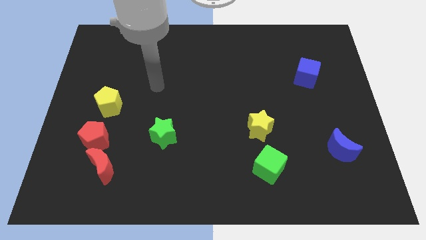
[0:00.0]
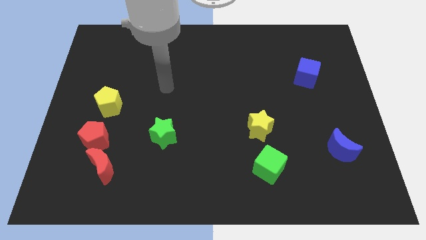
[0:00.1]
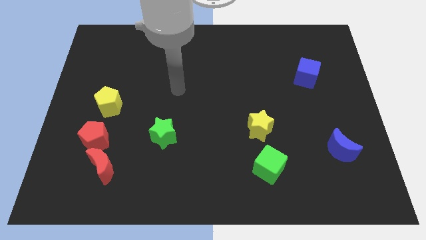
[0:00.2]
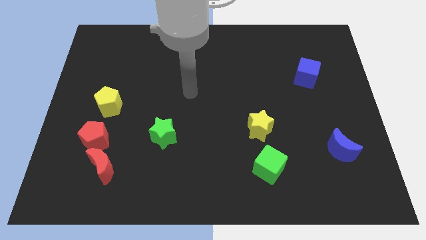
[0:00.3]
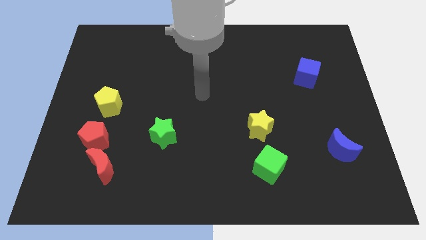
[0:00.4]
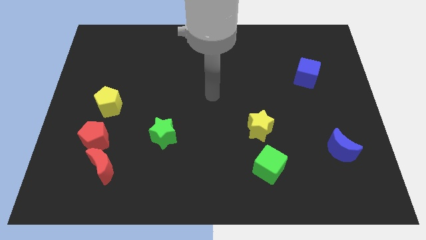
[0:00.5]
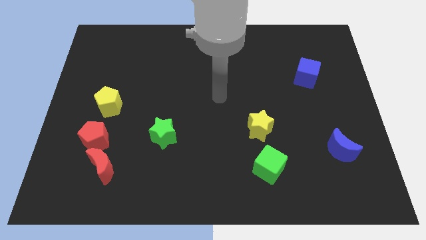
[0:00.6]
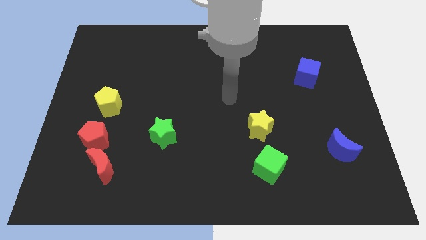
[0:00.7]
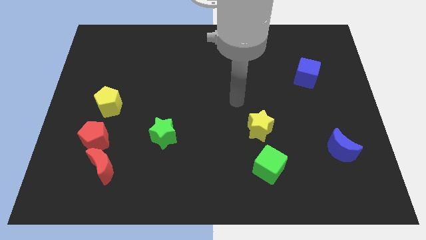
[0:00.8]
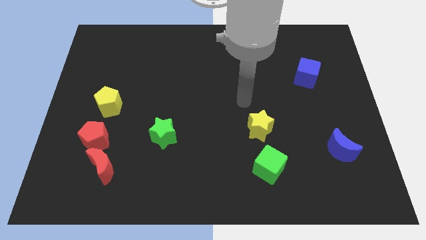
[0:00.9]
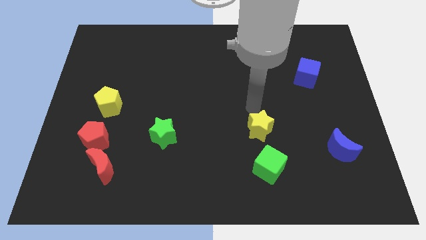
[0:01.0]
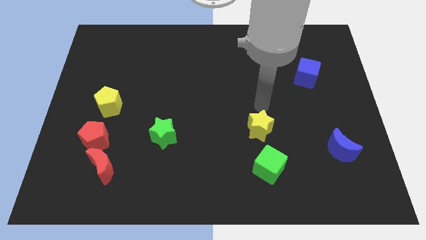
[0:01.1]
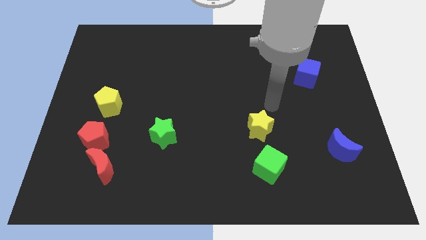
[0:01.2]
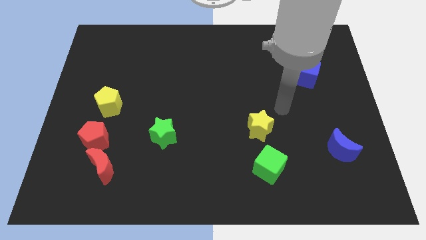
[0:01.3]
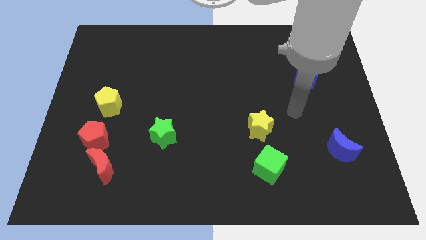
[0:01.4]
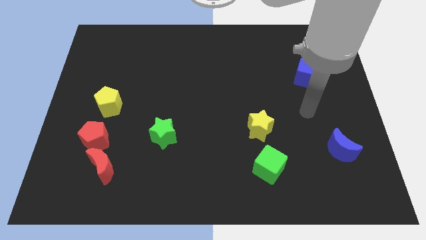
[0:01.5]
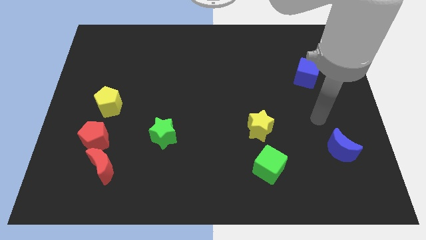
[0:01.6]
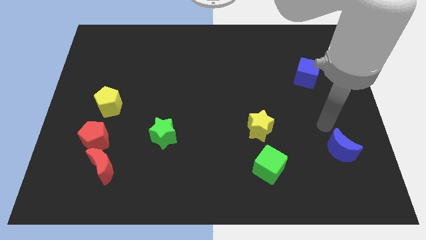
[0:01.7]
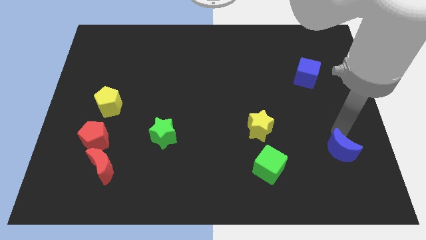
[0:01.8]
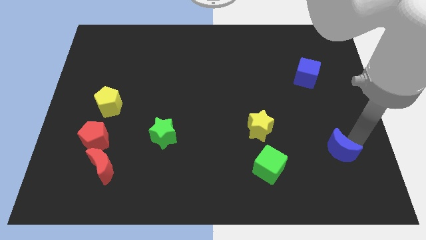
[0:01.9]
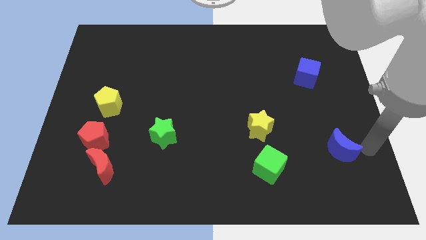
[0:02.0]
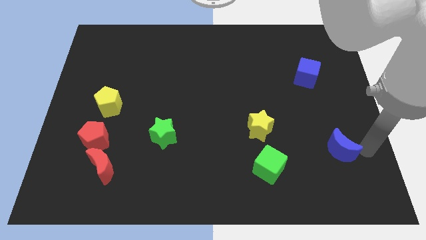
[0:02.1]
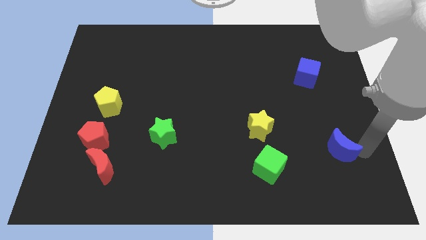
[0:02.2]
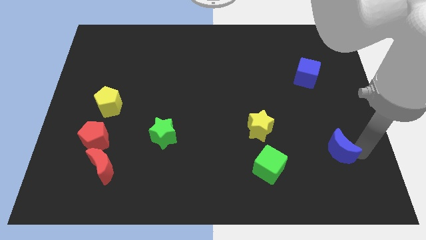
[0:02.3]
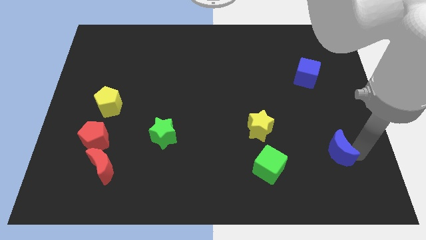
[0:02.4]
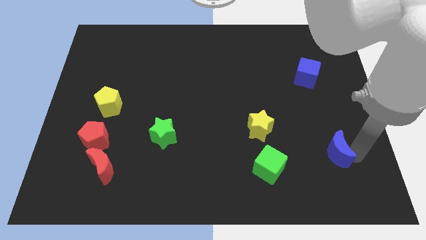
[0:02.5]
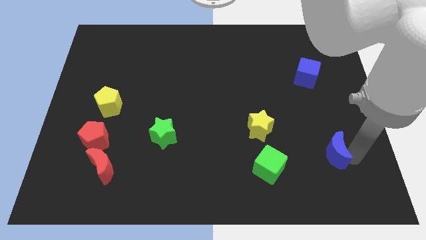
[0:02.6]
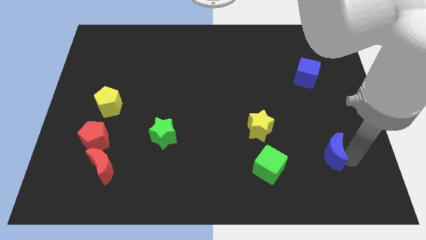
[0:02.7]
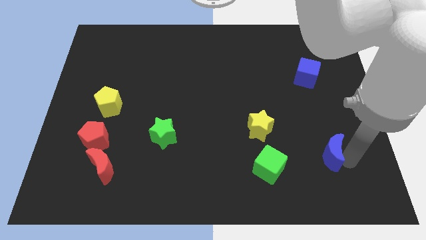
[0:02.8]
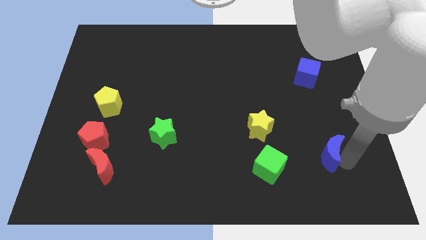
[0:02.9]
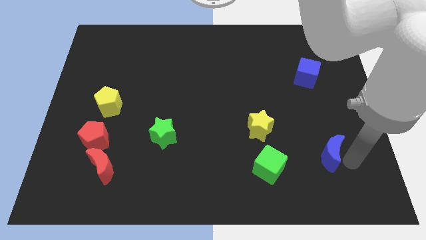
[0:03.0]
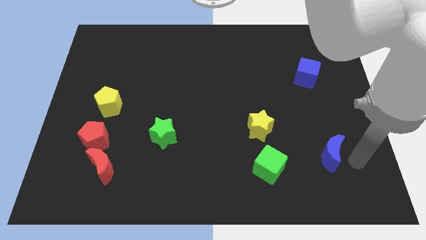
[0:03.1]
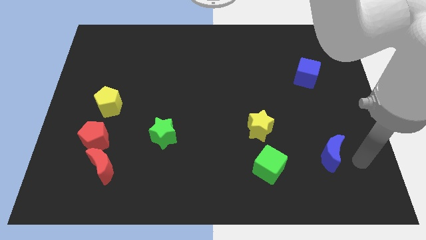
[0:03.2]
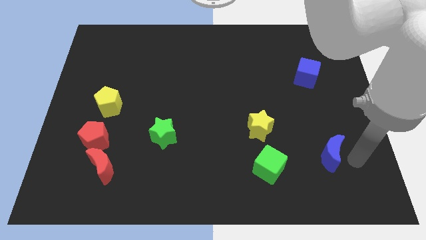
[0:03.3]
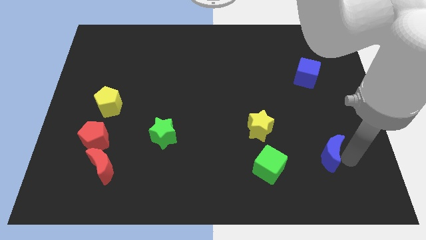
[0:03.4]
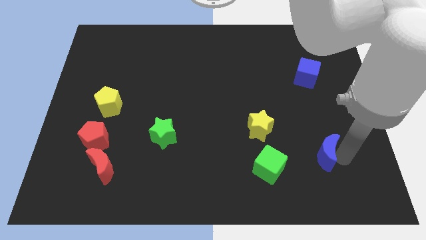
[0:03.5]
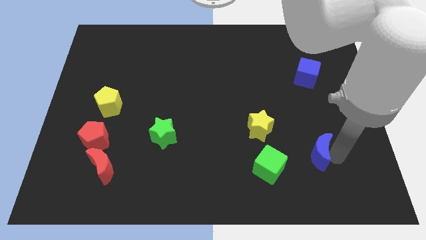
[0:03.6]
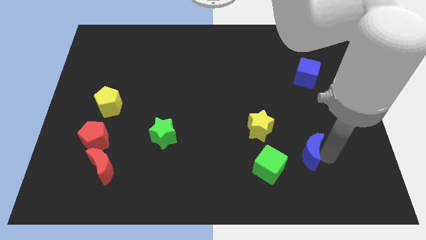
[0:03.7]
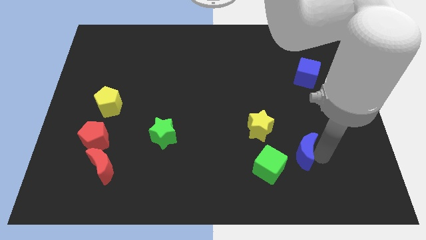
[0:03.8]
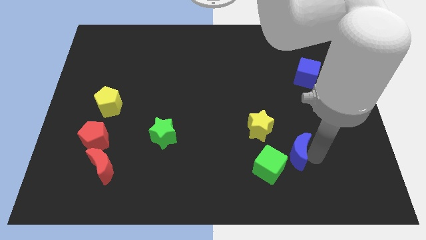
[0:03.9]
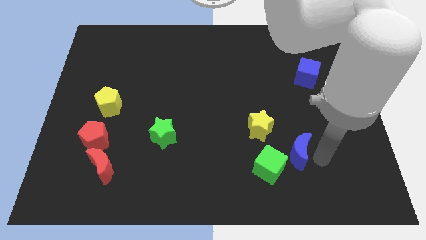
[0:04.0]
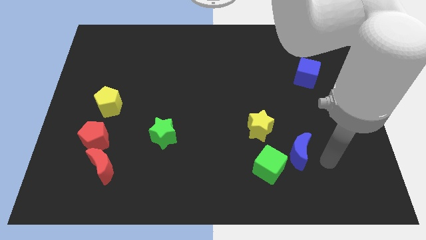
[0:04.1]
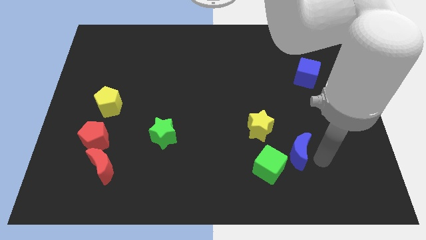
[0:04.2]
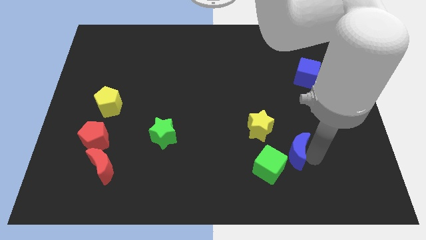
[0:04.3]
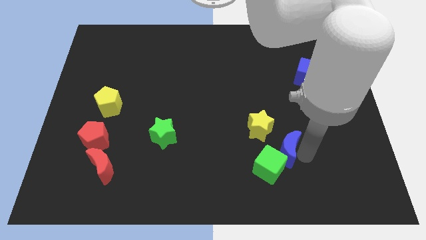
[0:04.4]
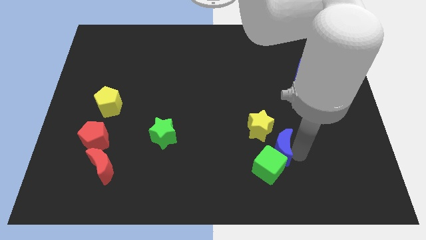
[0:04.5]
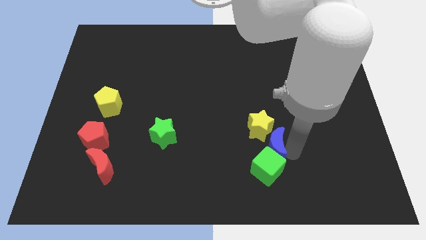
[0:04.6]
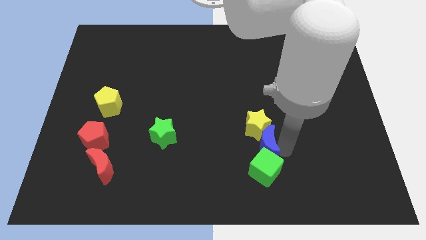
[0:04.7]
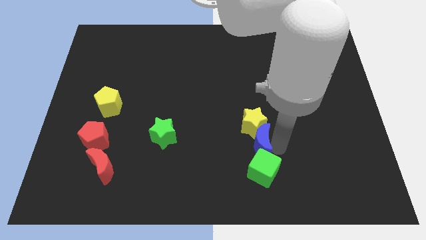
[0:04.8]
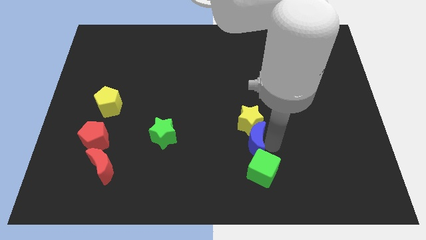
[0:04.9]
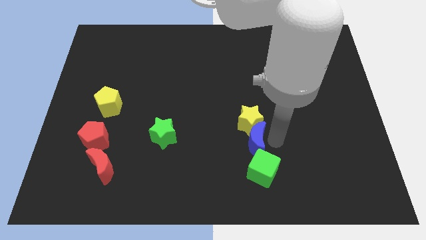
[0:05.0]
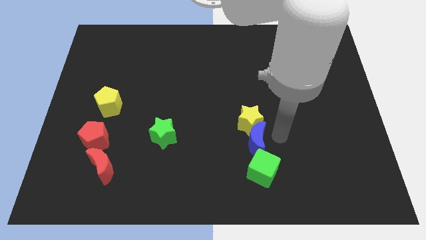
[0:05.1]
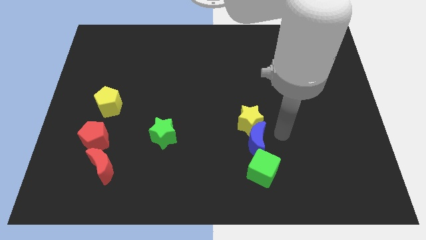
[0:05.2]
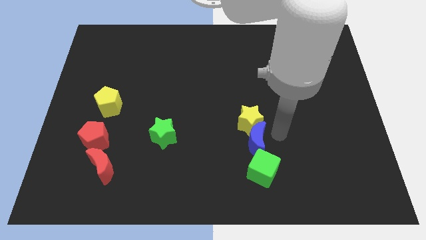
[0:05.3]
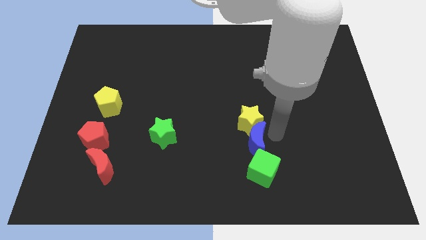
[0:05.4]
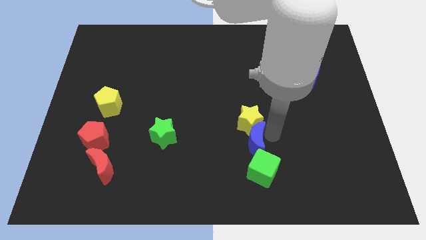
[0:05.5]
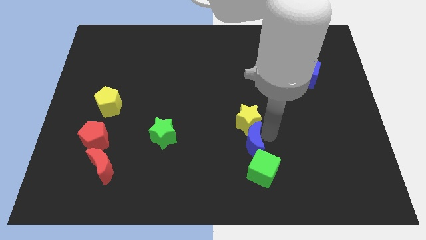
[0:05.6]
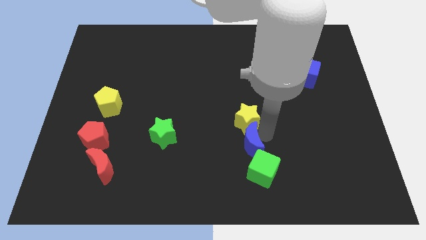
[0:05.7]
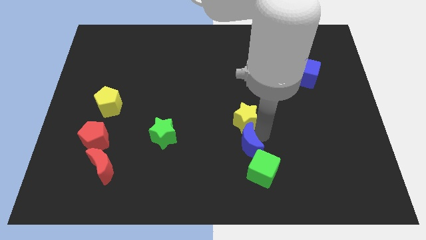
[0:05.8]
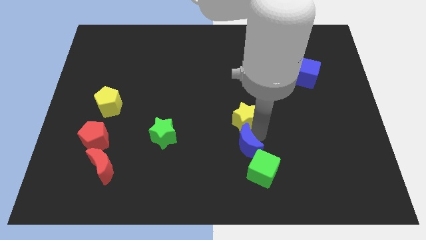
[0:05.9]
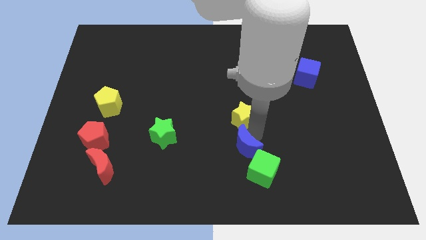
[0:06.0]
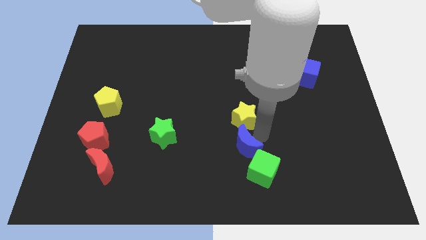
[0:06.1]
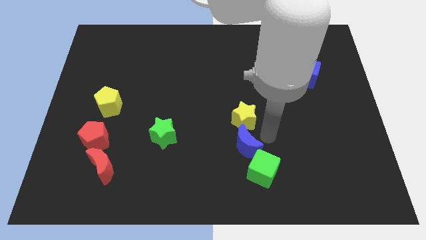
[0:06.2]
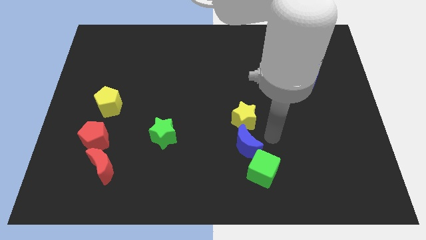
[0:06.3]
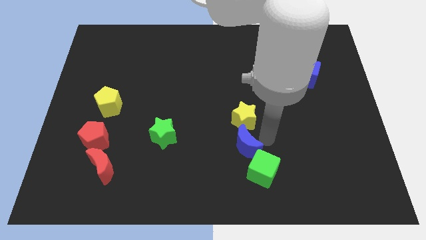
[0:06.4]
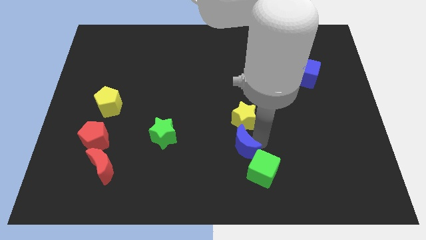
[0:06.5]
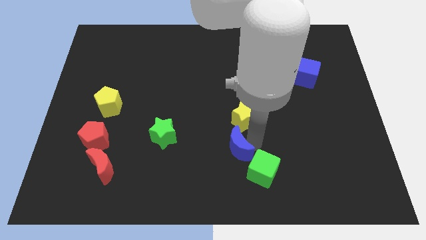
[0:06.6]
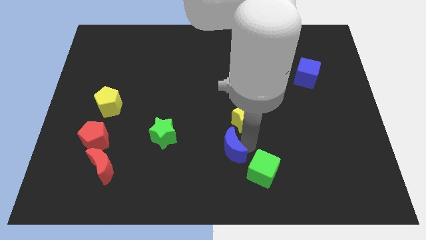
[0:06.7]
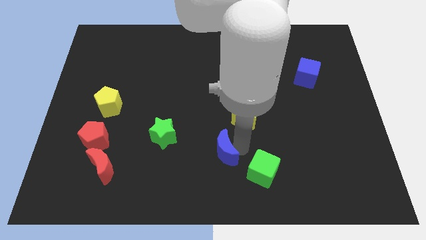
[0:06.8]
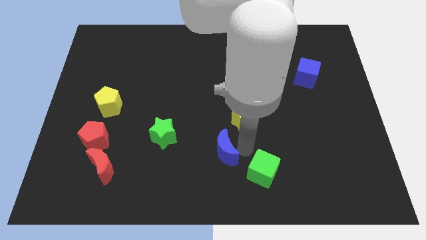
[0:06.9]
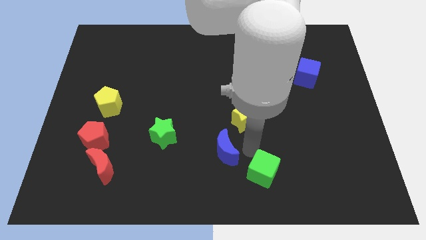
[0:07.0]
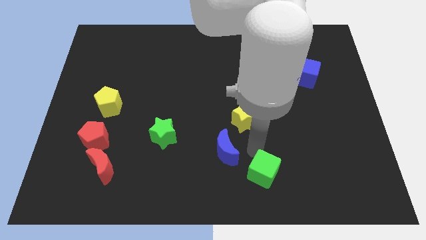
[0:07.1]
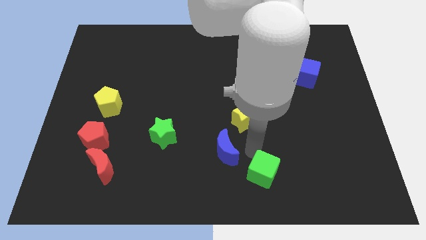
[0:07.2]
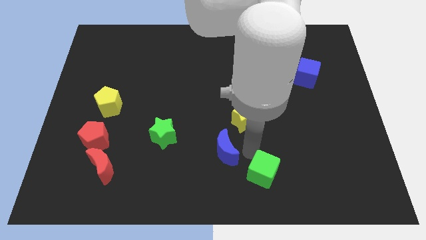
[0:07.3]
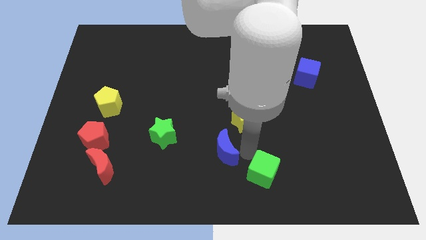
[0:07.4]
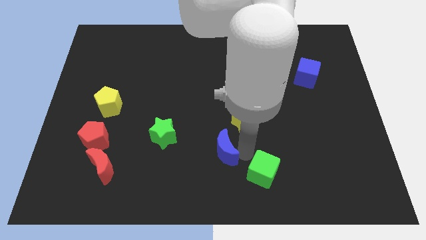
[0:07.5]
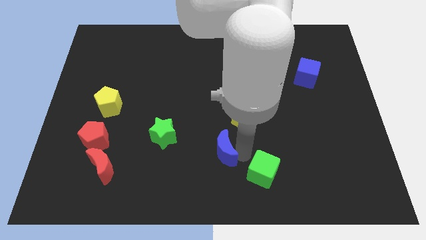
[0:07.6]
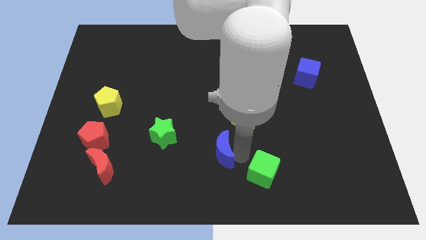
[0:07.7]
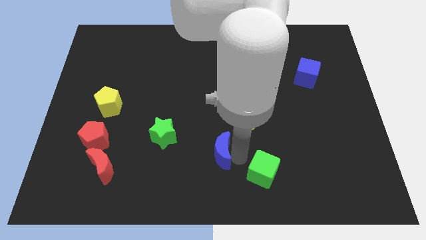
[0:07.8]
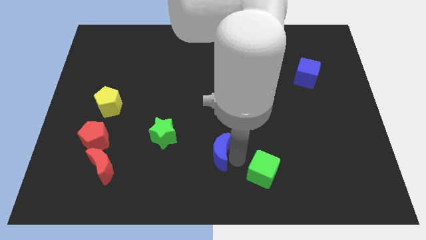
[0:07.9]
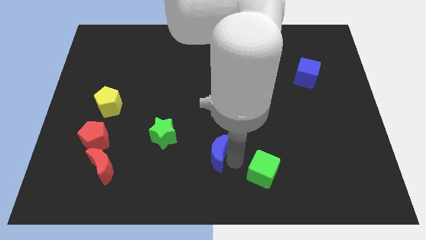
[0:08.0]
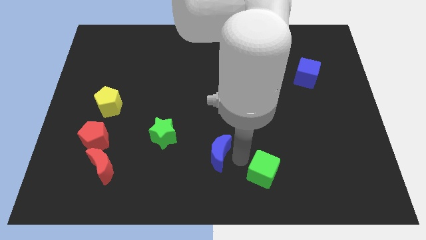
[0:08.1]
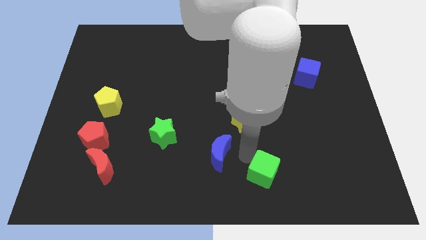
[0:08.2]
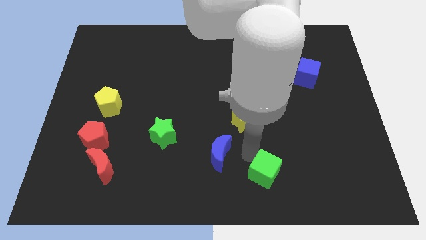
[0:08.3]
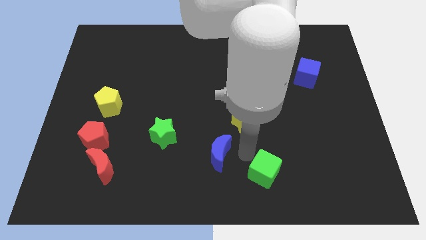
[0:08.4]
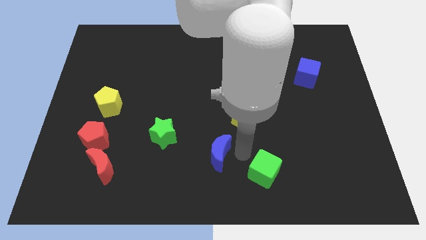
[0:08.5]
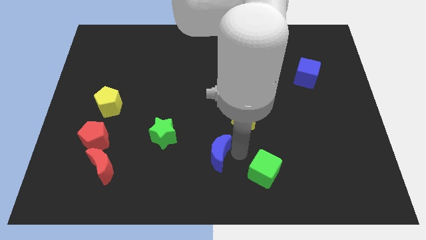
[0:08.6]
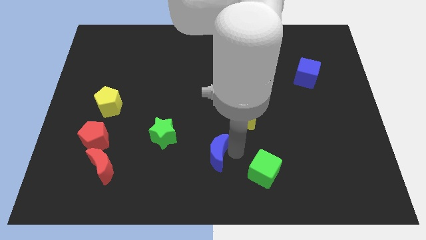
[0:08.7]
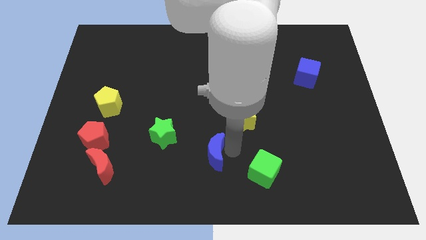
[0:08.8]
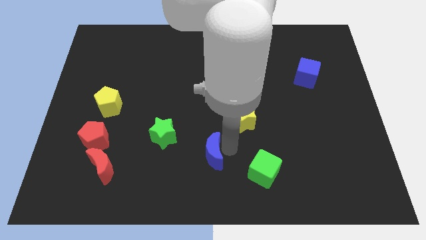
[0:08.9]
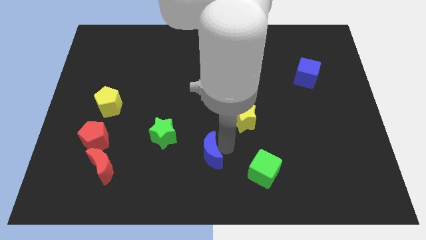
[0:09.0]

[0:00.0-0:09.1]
move the blue moon to the bottom right of the green star
